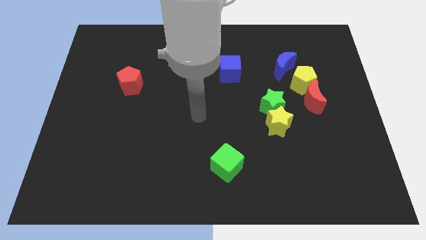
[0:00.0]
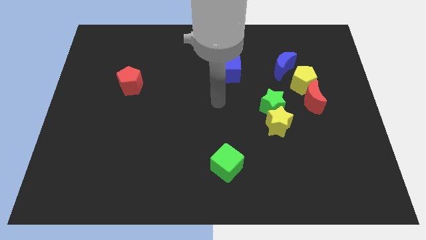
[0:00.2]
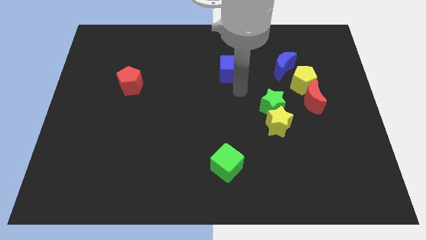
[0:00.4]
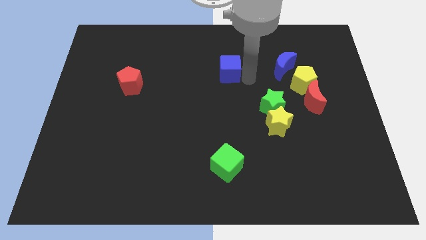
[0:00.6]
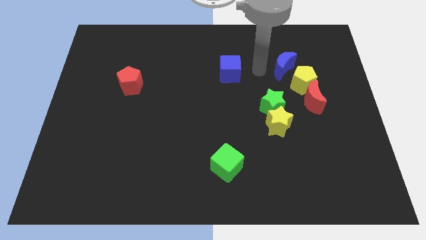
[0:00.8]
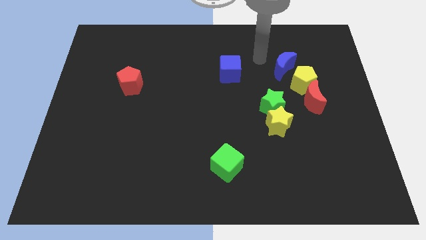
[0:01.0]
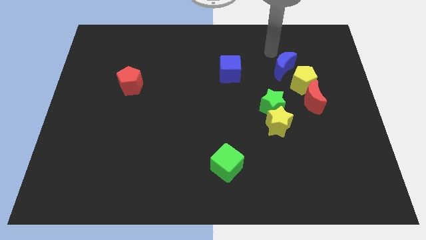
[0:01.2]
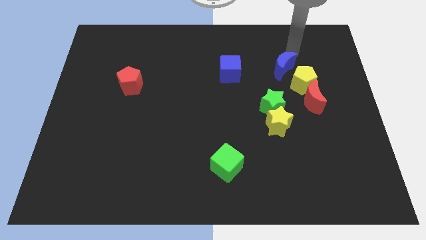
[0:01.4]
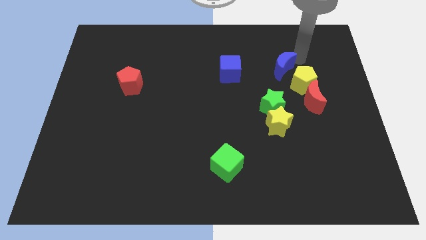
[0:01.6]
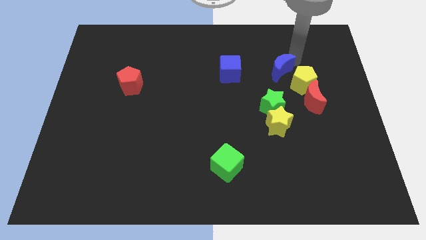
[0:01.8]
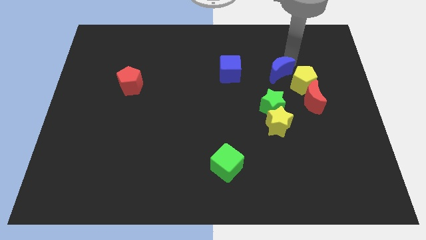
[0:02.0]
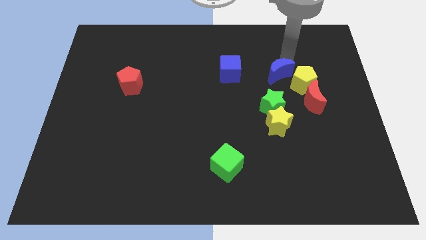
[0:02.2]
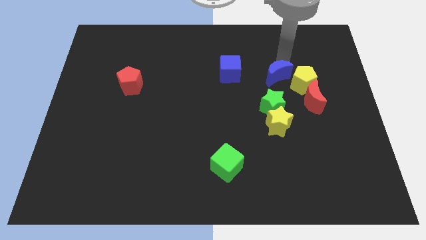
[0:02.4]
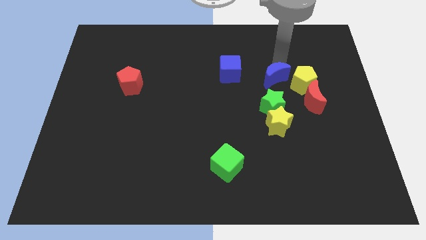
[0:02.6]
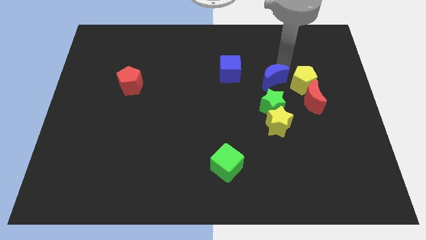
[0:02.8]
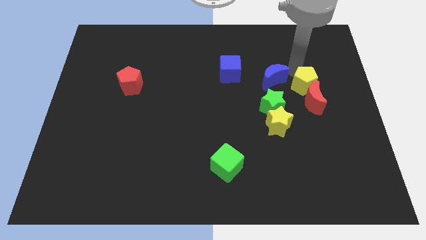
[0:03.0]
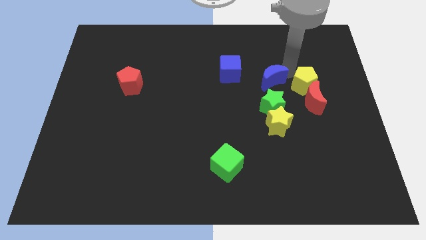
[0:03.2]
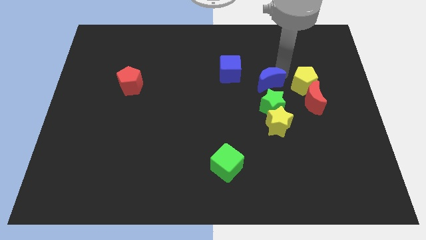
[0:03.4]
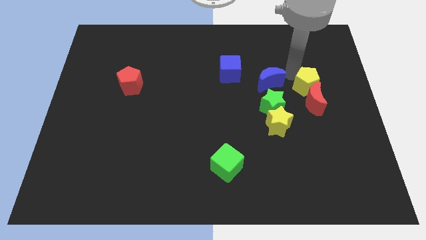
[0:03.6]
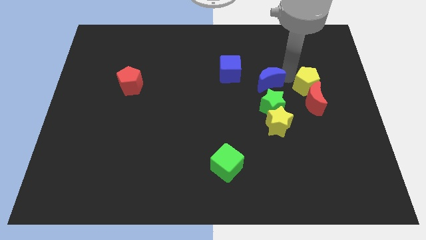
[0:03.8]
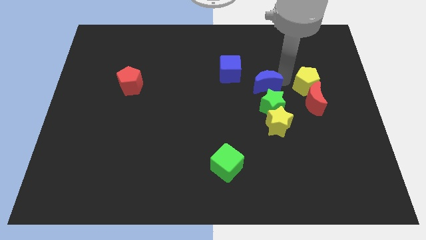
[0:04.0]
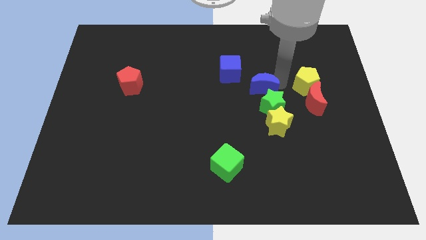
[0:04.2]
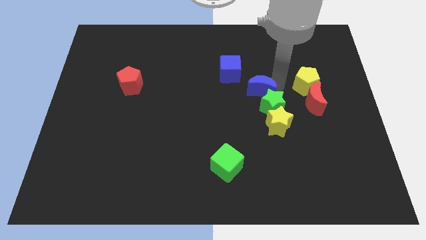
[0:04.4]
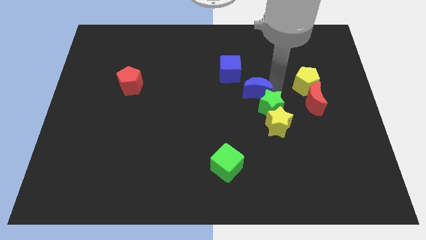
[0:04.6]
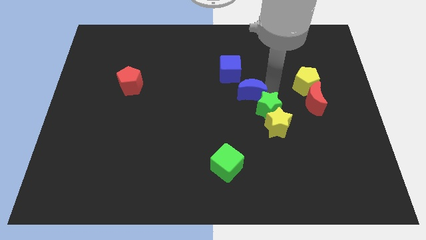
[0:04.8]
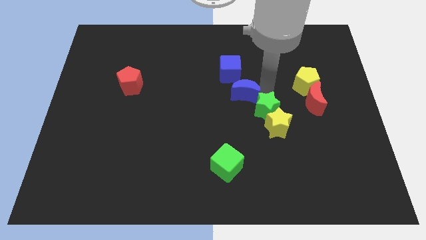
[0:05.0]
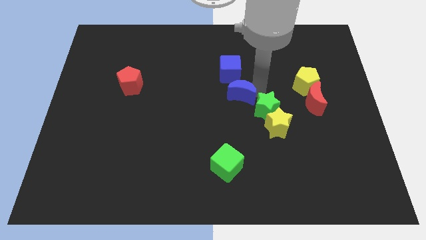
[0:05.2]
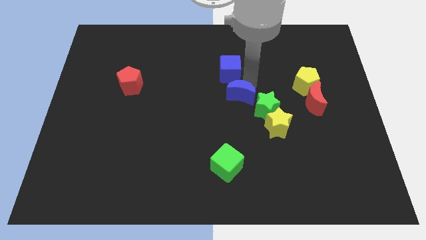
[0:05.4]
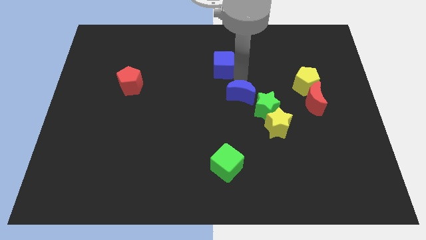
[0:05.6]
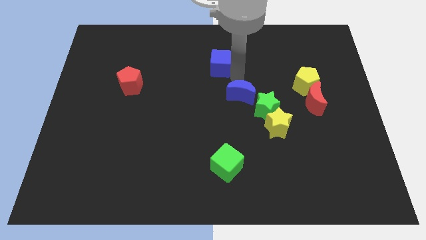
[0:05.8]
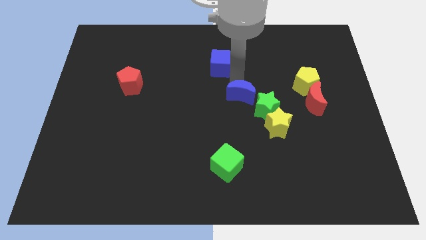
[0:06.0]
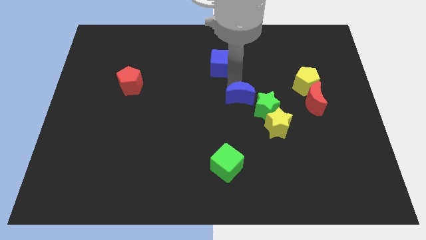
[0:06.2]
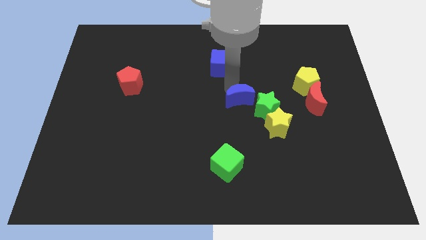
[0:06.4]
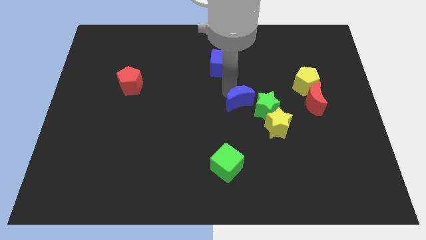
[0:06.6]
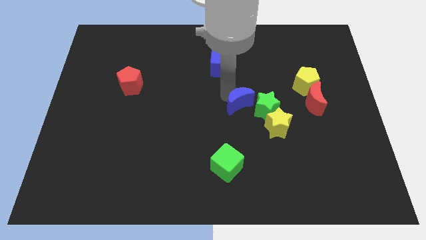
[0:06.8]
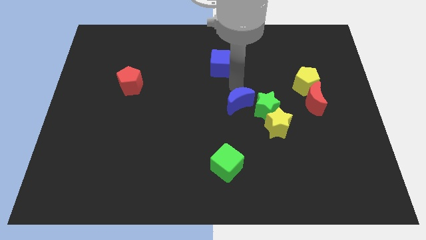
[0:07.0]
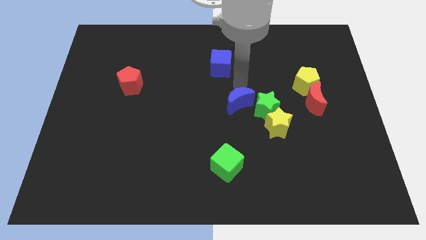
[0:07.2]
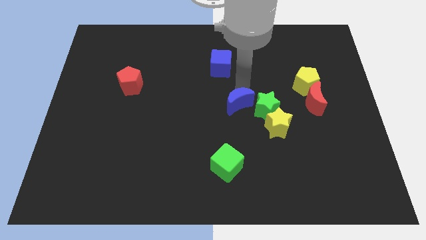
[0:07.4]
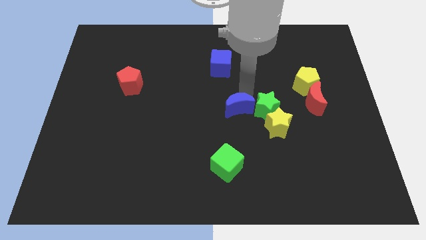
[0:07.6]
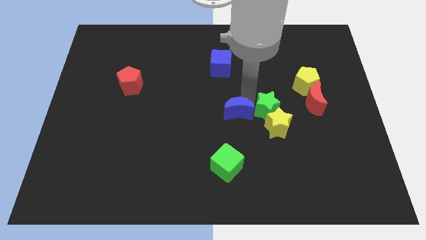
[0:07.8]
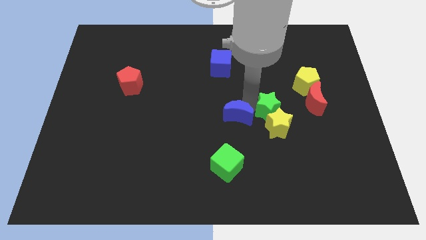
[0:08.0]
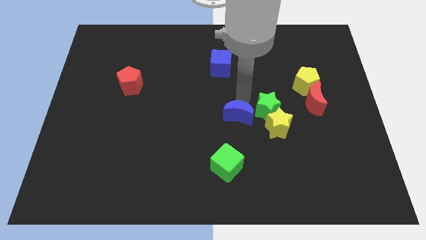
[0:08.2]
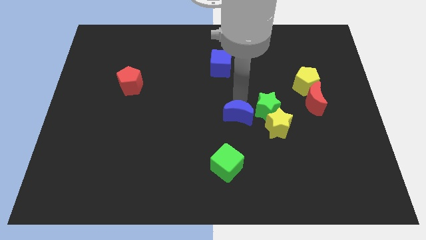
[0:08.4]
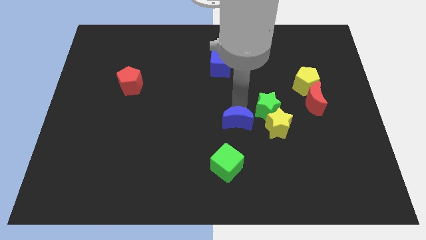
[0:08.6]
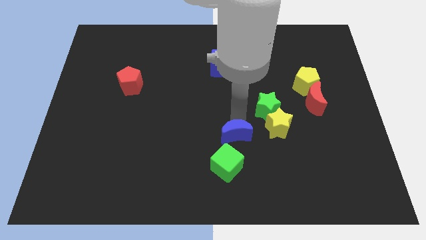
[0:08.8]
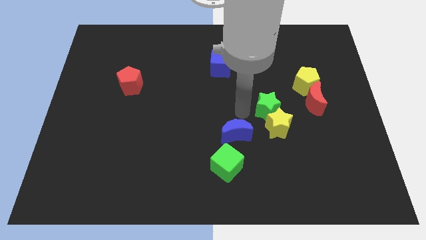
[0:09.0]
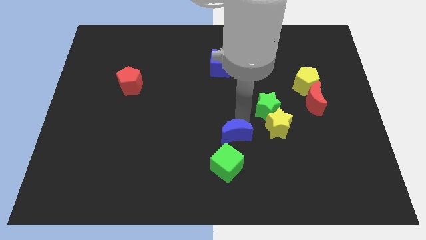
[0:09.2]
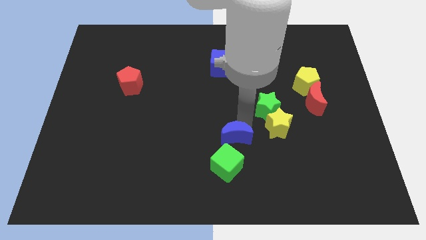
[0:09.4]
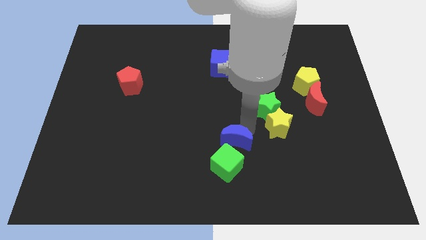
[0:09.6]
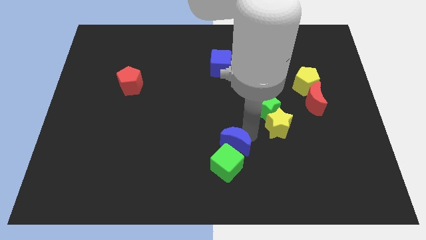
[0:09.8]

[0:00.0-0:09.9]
push the blue moon close to the green cube

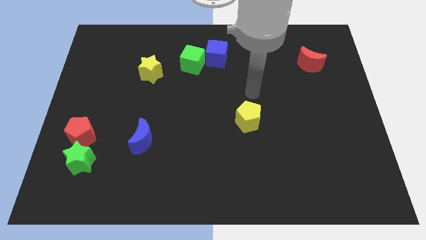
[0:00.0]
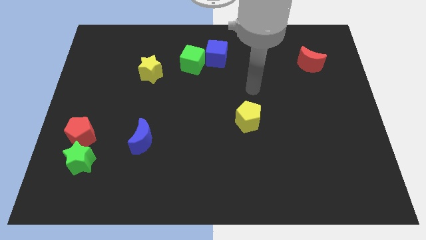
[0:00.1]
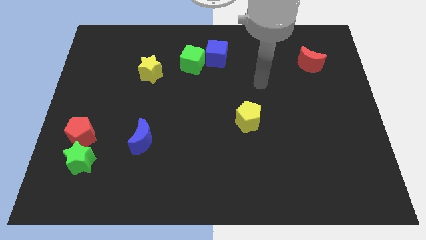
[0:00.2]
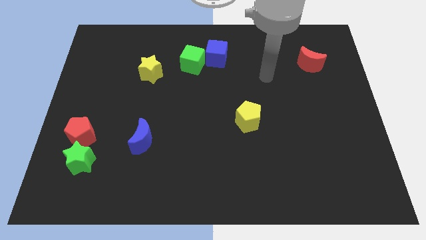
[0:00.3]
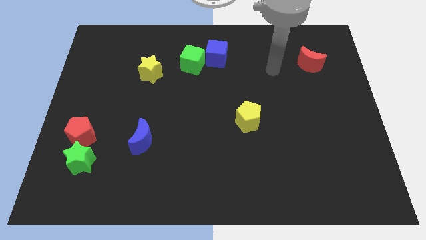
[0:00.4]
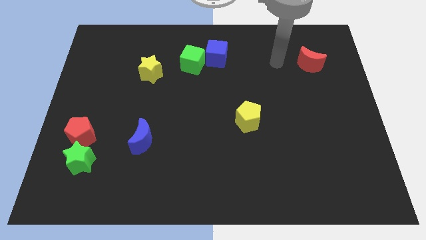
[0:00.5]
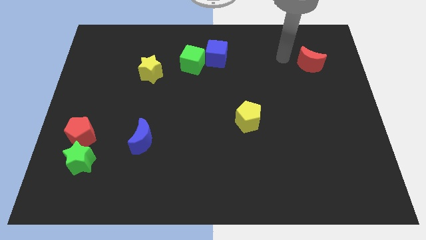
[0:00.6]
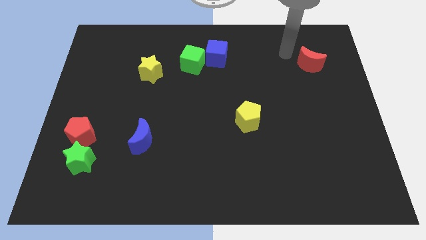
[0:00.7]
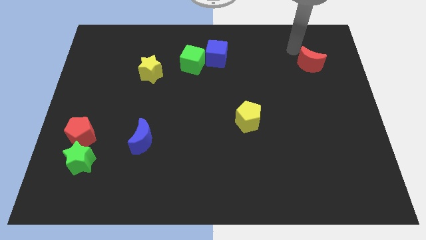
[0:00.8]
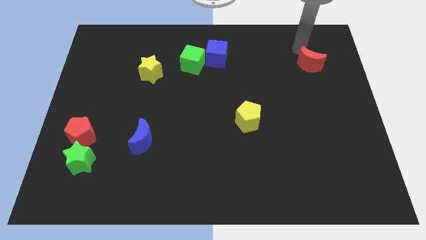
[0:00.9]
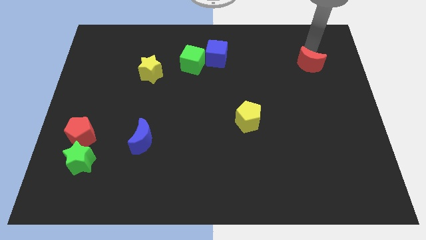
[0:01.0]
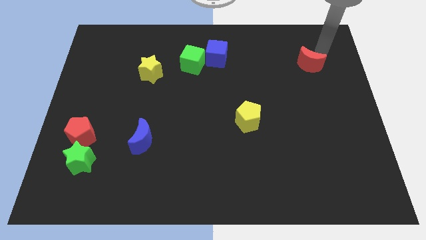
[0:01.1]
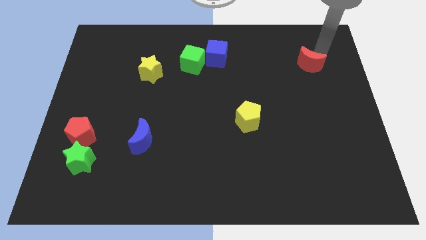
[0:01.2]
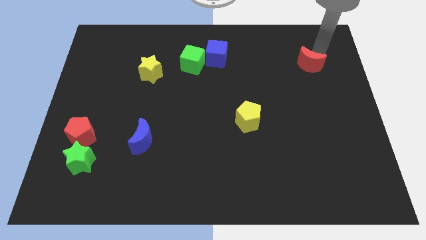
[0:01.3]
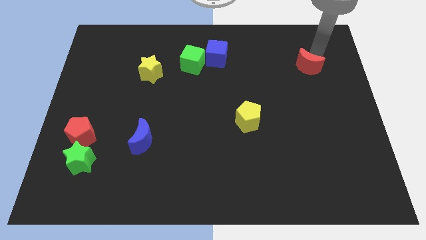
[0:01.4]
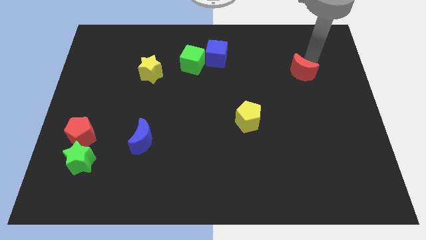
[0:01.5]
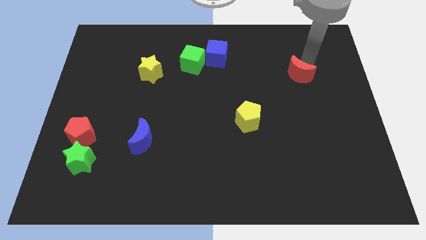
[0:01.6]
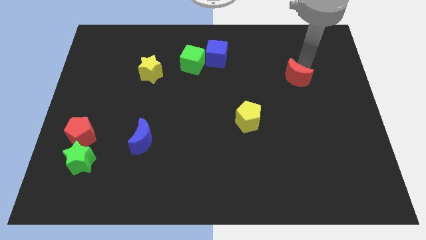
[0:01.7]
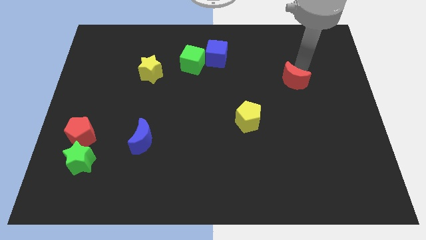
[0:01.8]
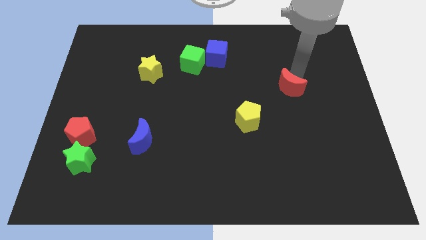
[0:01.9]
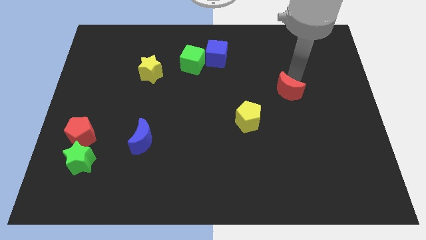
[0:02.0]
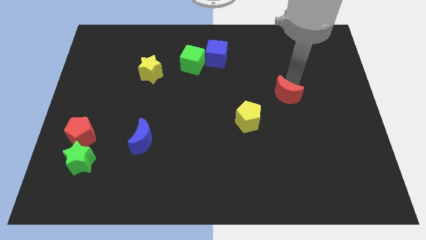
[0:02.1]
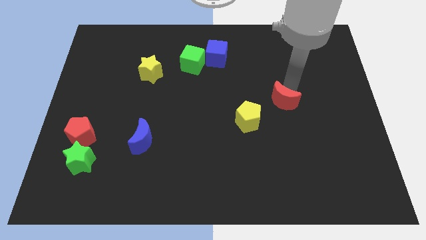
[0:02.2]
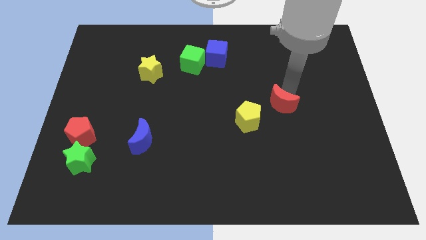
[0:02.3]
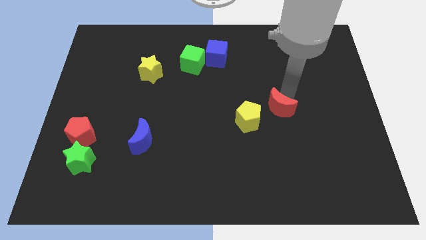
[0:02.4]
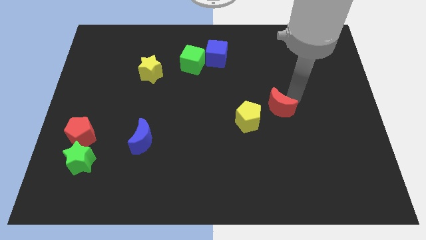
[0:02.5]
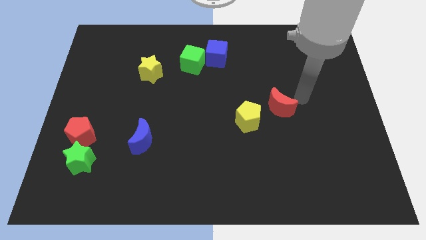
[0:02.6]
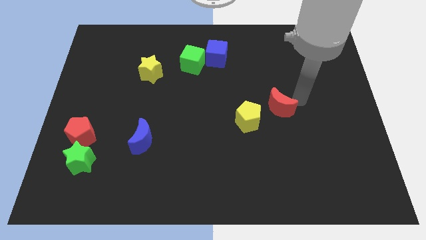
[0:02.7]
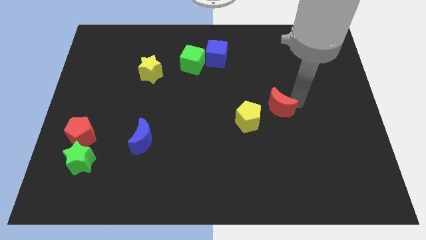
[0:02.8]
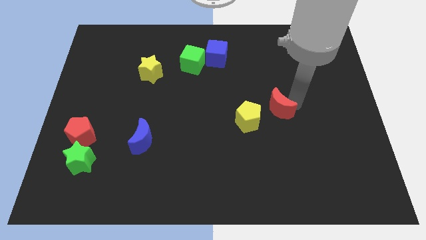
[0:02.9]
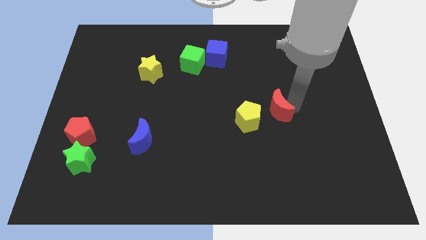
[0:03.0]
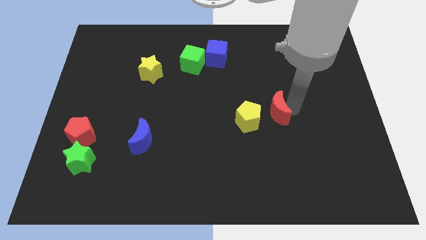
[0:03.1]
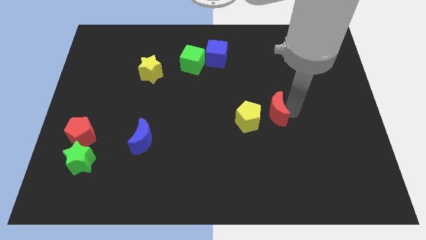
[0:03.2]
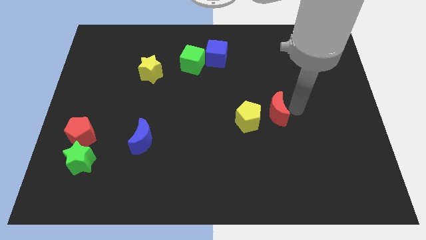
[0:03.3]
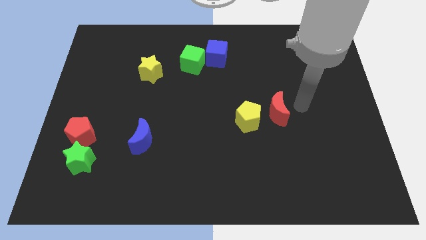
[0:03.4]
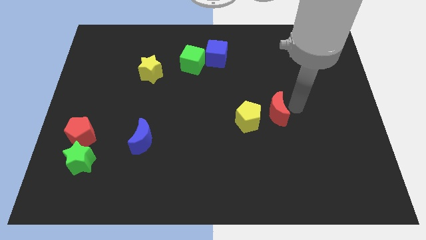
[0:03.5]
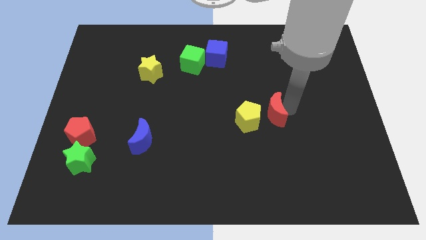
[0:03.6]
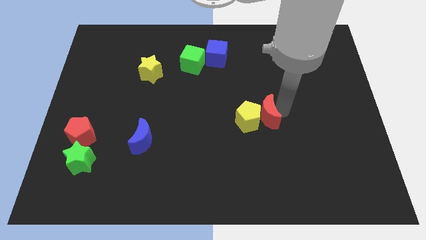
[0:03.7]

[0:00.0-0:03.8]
push the red moon close to the yellow pentagon
